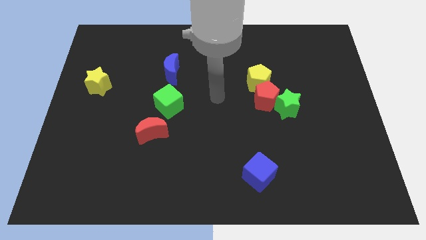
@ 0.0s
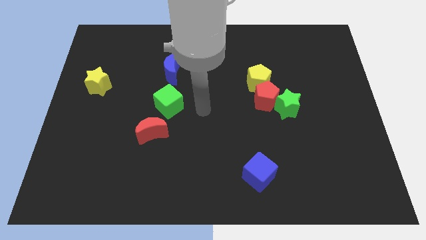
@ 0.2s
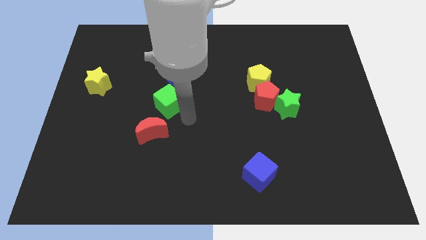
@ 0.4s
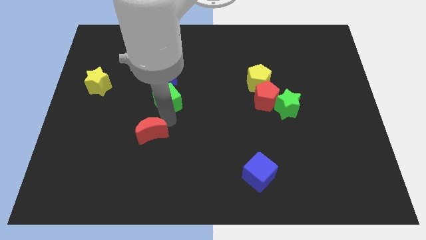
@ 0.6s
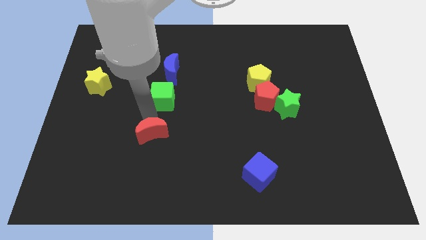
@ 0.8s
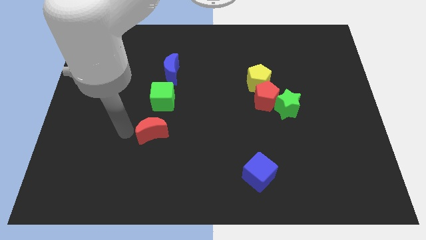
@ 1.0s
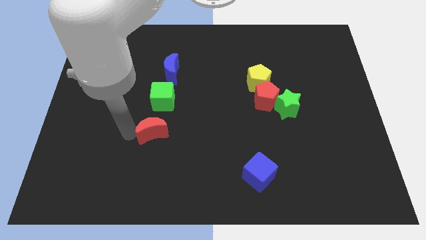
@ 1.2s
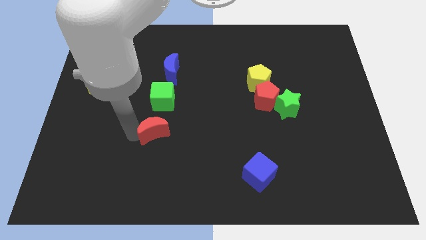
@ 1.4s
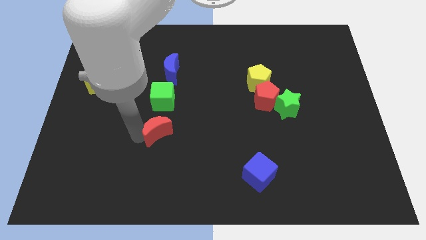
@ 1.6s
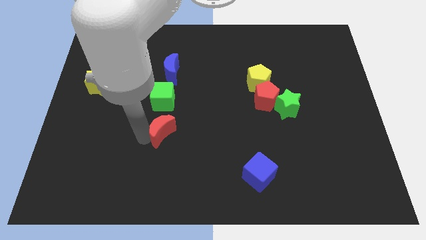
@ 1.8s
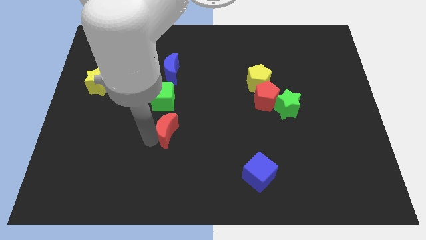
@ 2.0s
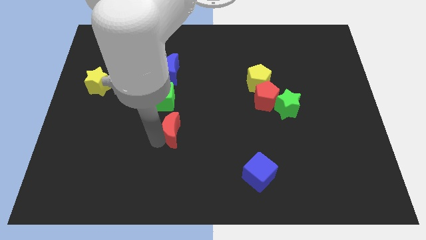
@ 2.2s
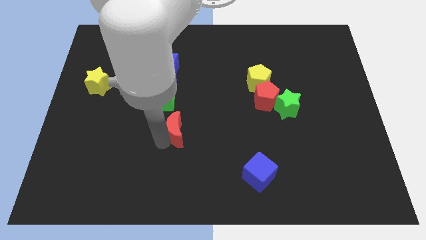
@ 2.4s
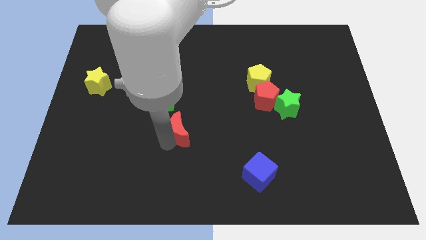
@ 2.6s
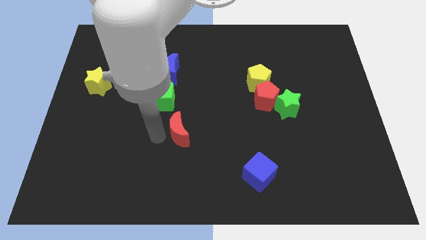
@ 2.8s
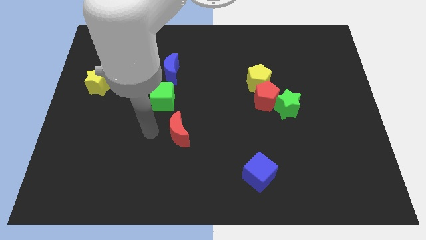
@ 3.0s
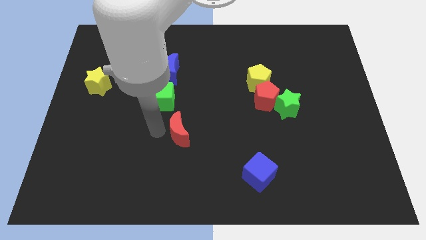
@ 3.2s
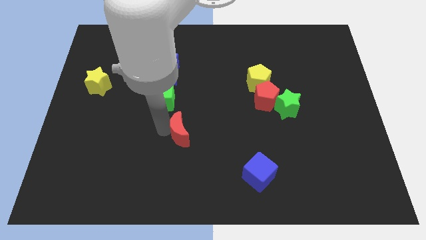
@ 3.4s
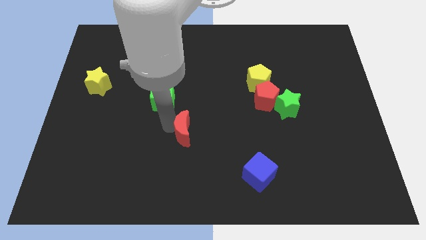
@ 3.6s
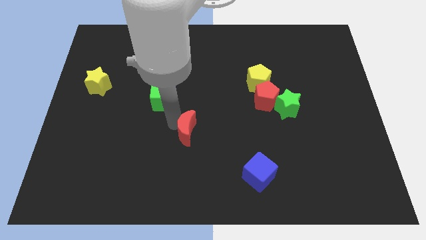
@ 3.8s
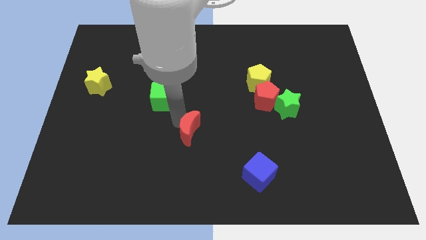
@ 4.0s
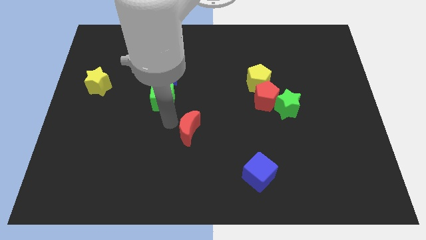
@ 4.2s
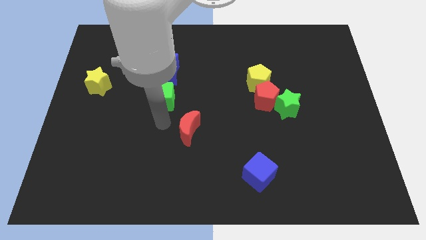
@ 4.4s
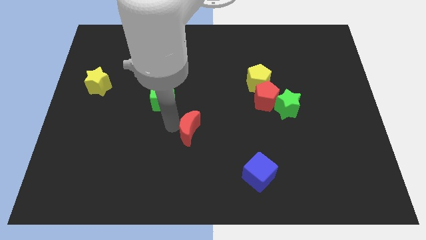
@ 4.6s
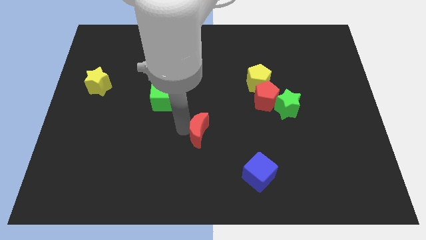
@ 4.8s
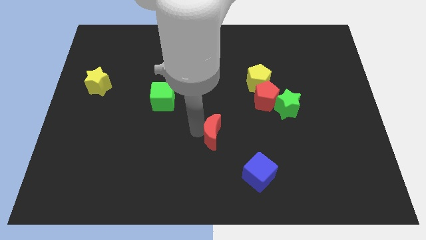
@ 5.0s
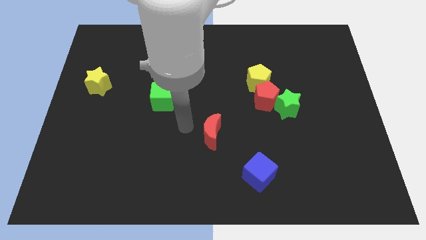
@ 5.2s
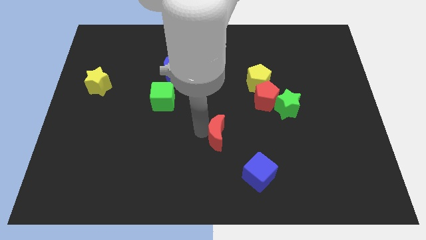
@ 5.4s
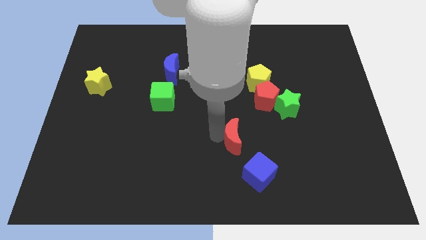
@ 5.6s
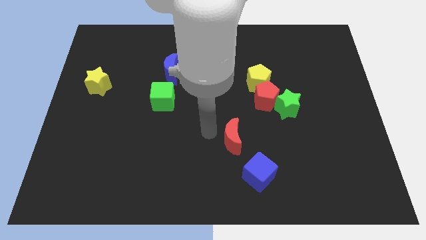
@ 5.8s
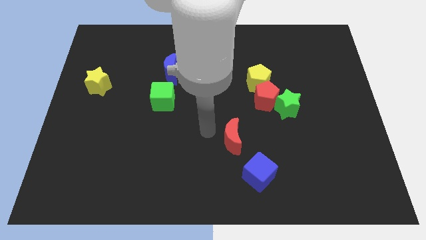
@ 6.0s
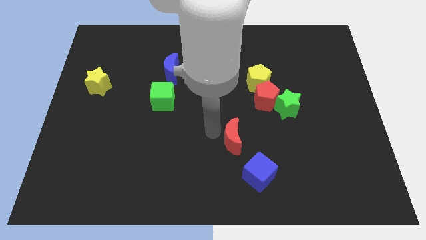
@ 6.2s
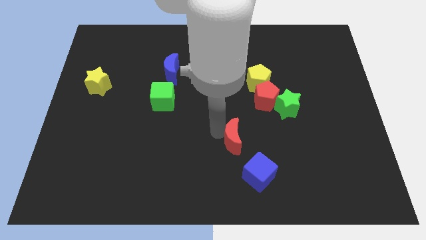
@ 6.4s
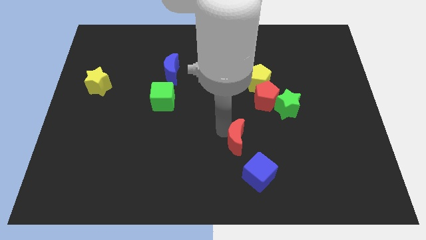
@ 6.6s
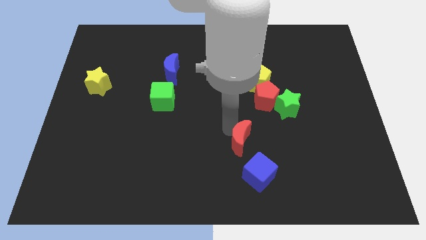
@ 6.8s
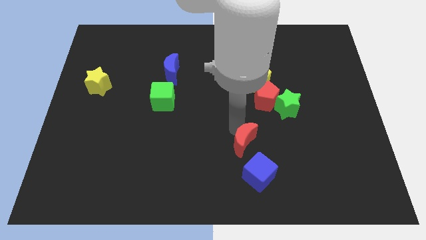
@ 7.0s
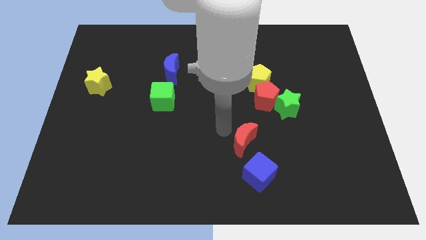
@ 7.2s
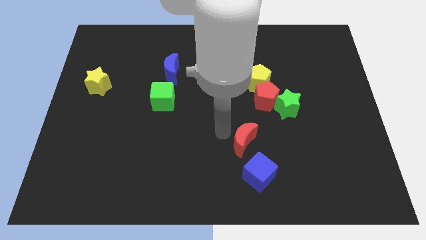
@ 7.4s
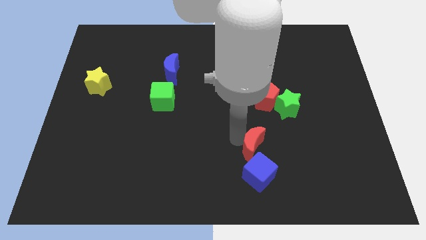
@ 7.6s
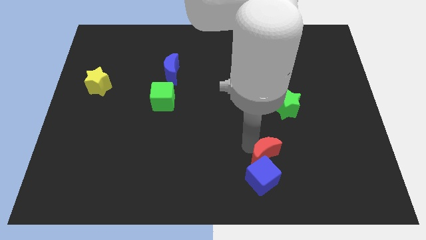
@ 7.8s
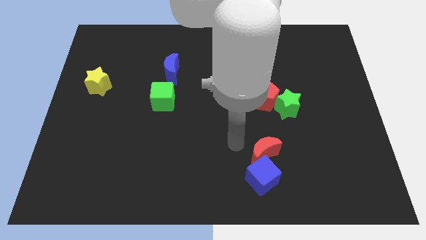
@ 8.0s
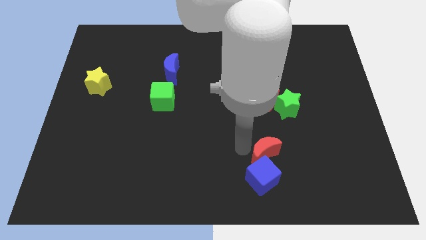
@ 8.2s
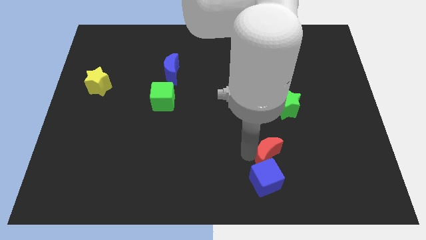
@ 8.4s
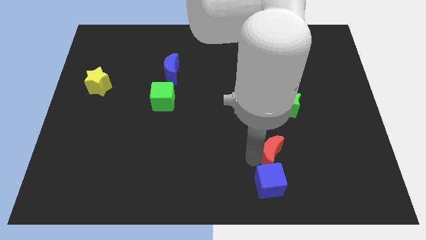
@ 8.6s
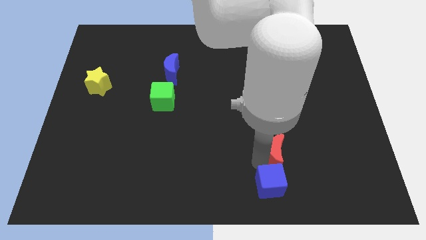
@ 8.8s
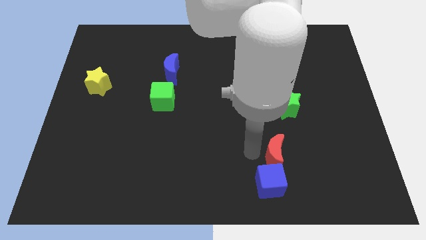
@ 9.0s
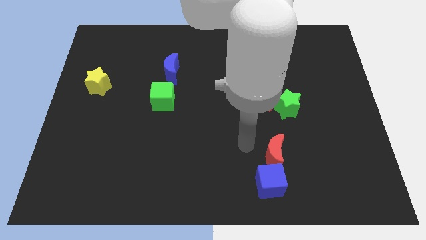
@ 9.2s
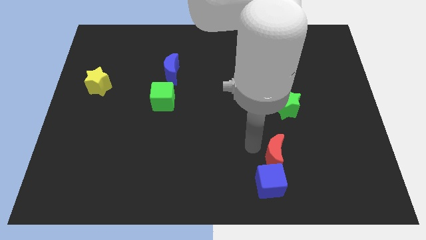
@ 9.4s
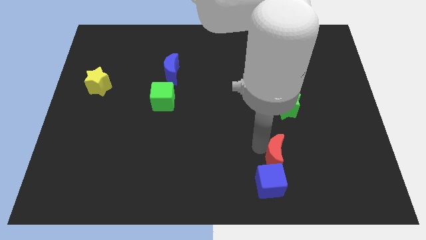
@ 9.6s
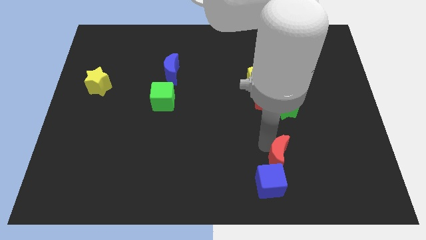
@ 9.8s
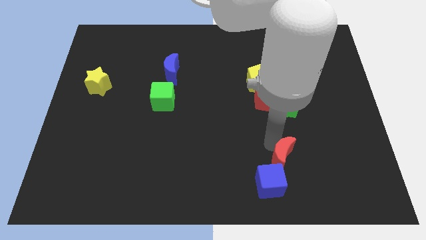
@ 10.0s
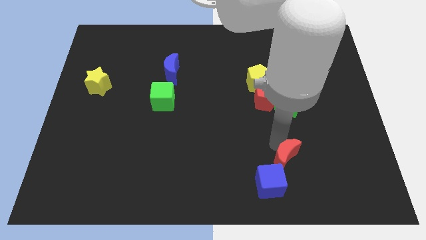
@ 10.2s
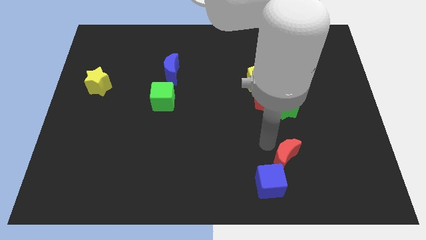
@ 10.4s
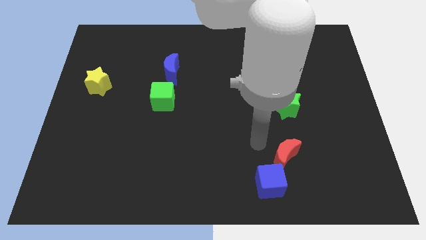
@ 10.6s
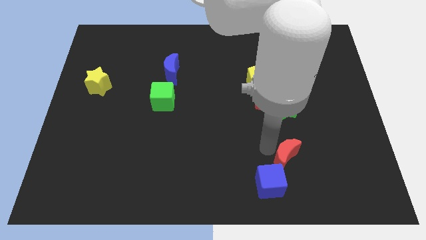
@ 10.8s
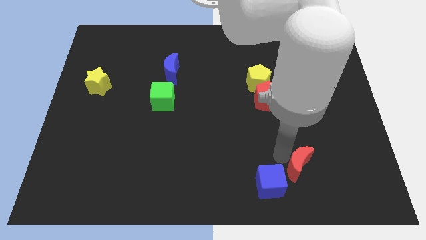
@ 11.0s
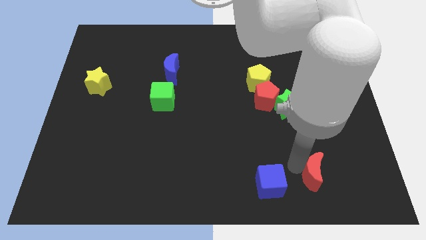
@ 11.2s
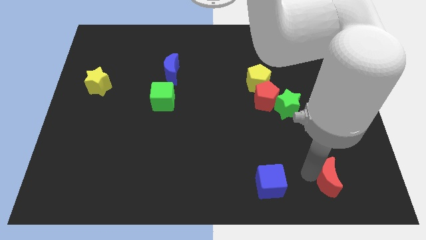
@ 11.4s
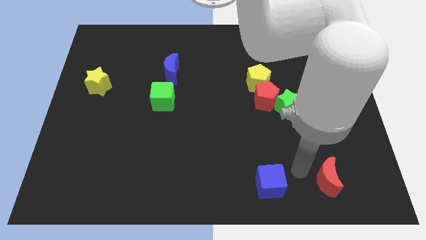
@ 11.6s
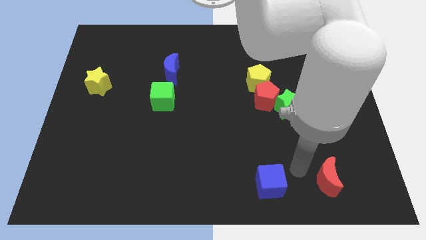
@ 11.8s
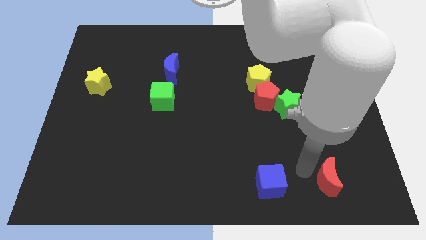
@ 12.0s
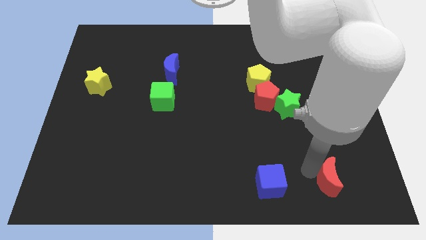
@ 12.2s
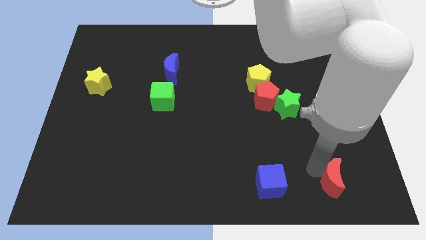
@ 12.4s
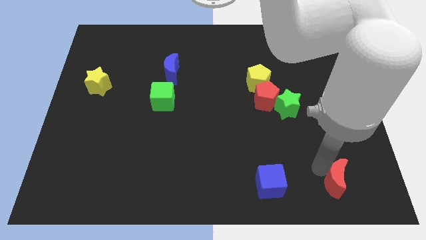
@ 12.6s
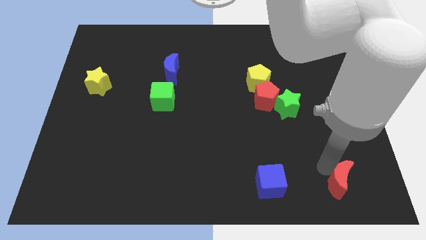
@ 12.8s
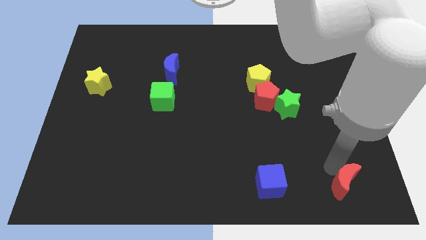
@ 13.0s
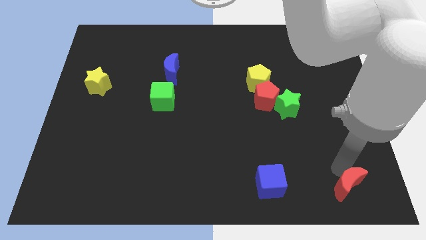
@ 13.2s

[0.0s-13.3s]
put the red moon to the bottom right

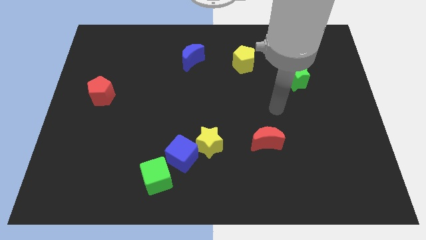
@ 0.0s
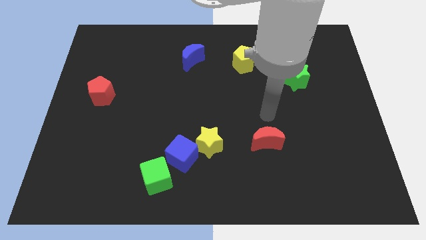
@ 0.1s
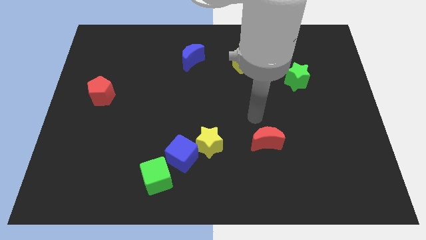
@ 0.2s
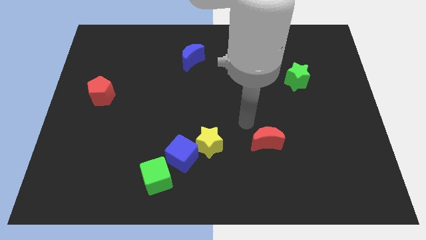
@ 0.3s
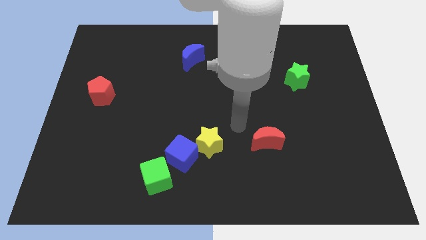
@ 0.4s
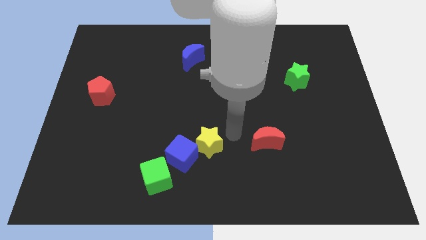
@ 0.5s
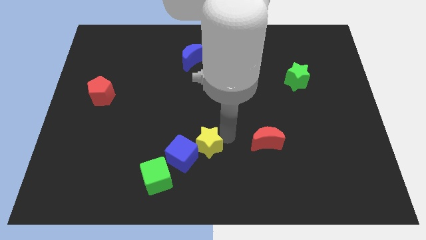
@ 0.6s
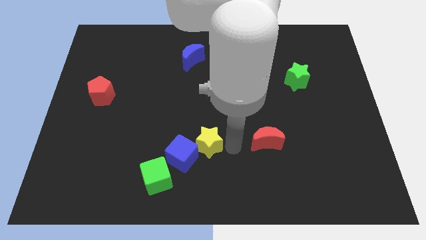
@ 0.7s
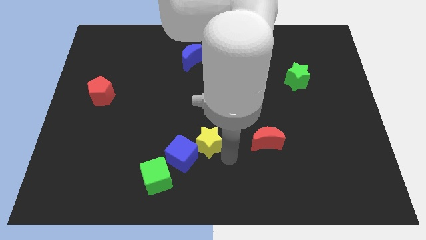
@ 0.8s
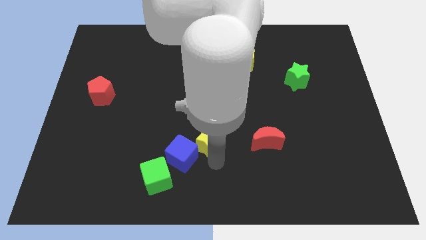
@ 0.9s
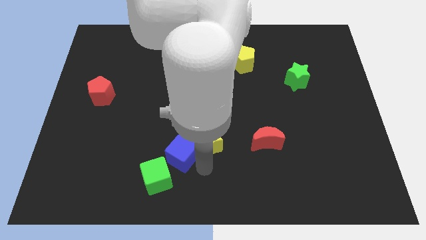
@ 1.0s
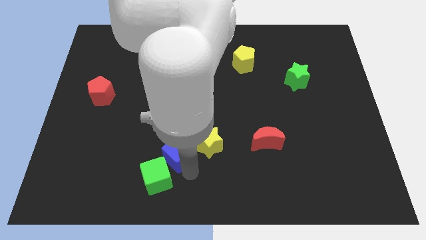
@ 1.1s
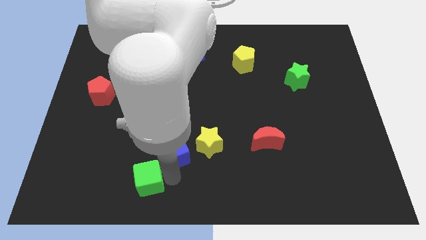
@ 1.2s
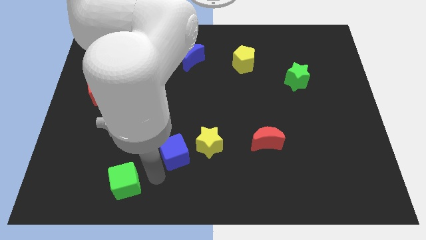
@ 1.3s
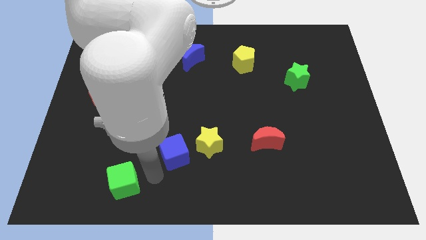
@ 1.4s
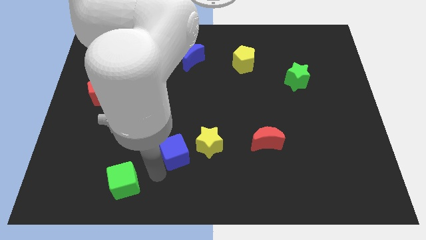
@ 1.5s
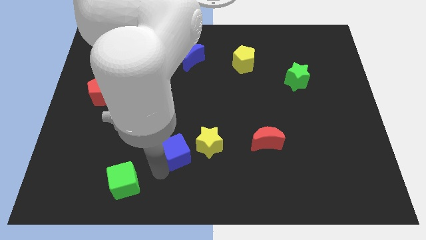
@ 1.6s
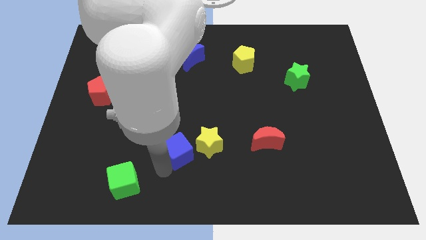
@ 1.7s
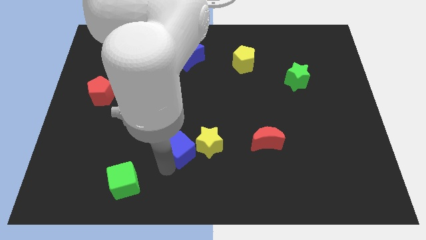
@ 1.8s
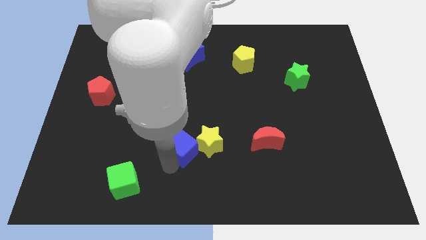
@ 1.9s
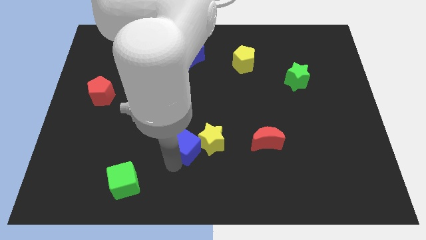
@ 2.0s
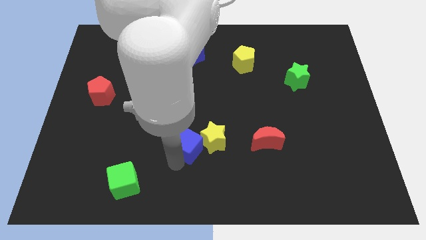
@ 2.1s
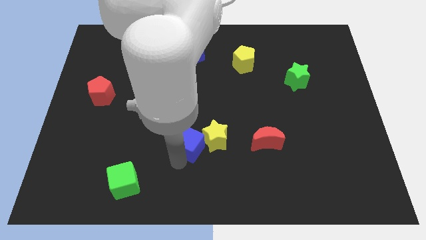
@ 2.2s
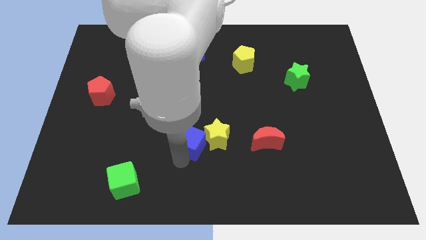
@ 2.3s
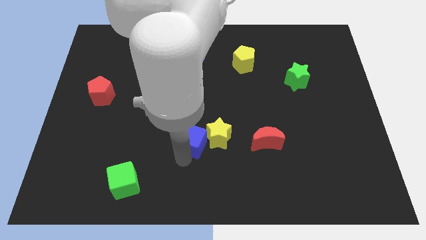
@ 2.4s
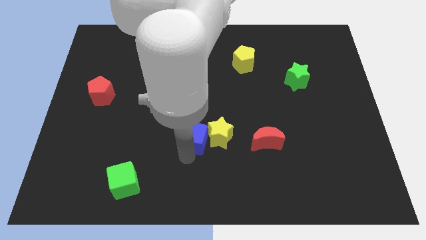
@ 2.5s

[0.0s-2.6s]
slide the blue cube to the center
